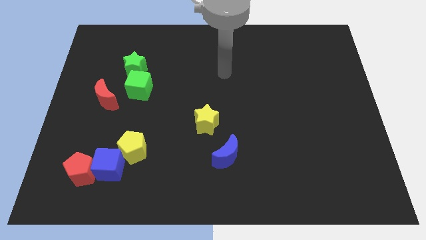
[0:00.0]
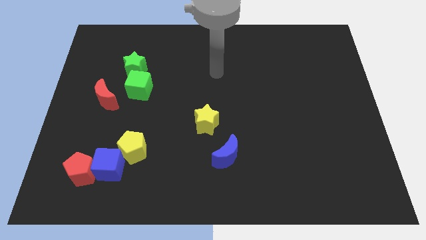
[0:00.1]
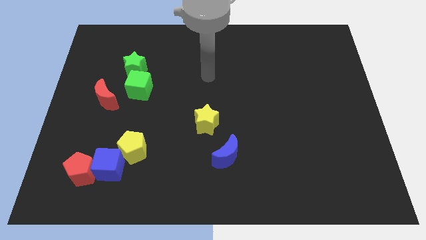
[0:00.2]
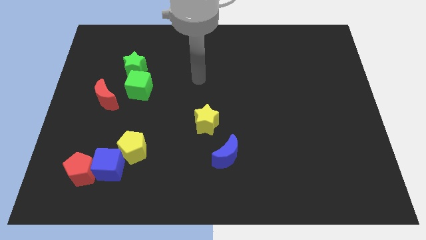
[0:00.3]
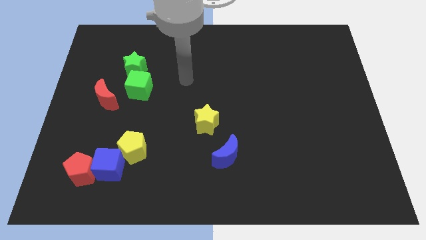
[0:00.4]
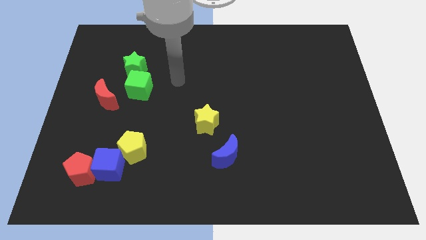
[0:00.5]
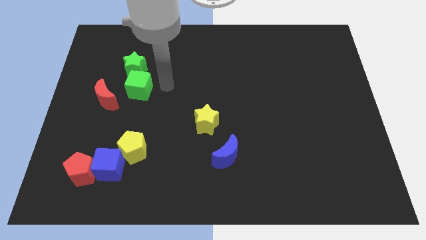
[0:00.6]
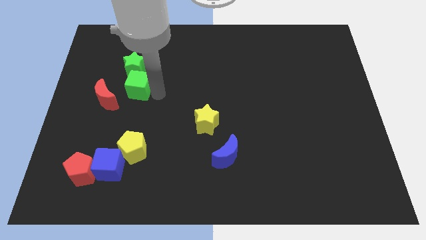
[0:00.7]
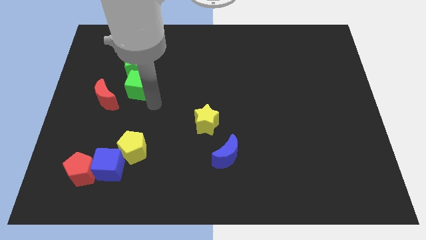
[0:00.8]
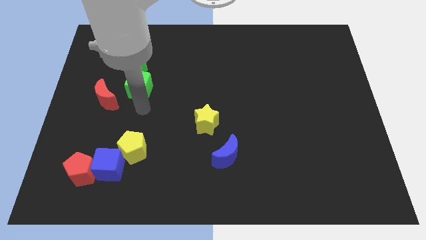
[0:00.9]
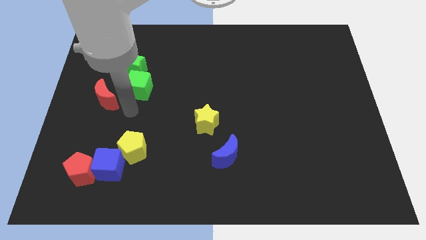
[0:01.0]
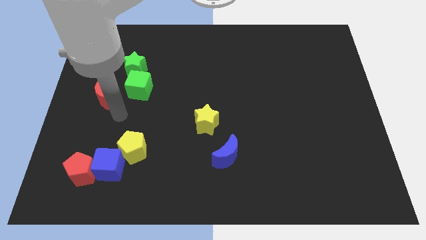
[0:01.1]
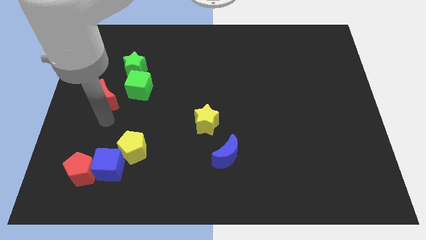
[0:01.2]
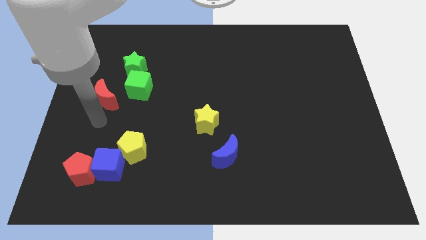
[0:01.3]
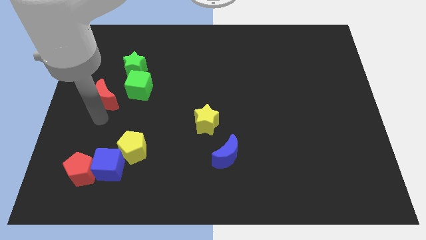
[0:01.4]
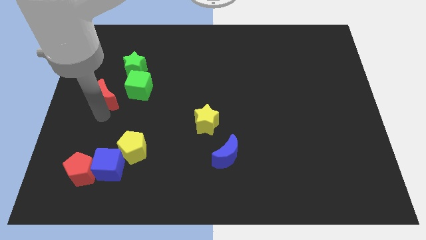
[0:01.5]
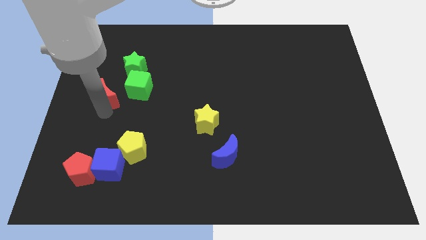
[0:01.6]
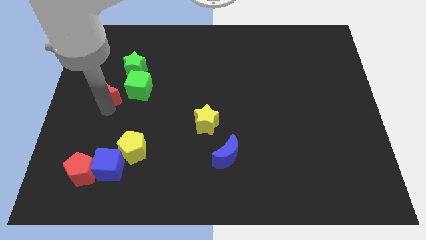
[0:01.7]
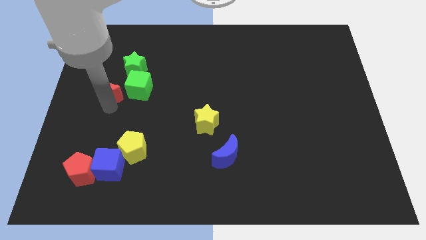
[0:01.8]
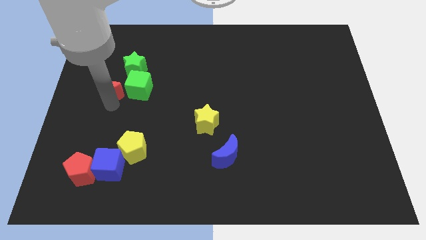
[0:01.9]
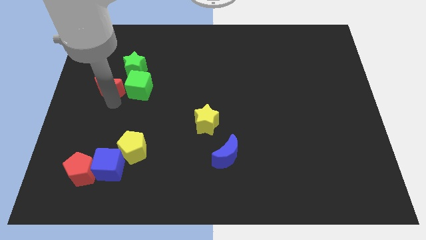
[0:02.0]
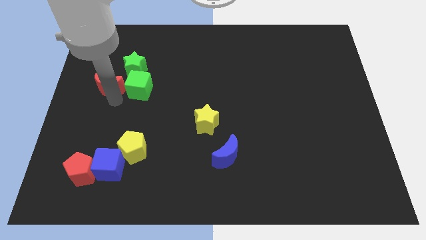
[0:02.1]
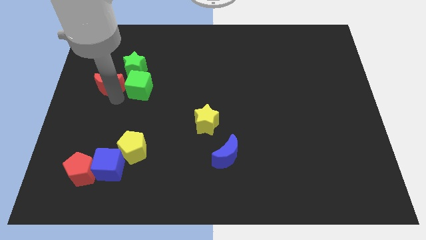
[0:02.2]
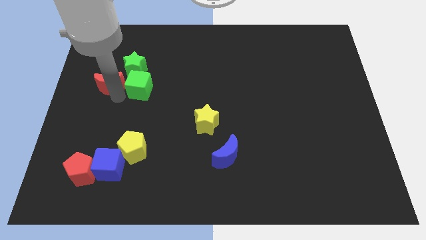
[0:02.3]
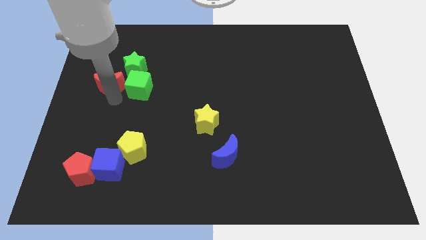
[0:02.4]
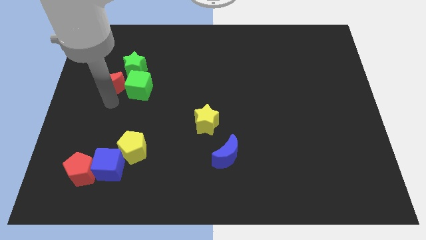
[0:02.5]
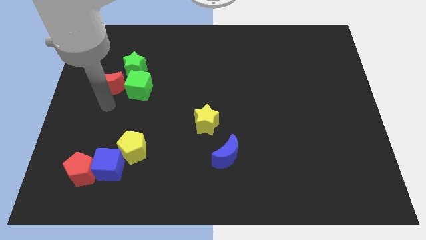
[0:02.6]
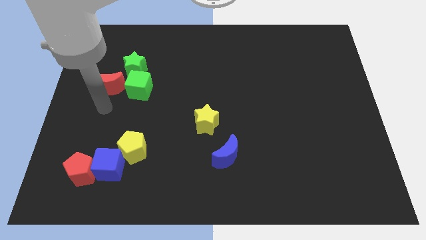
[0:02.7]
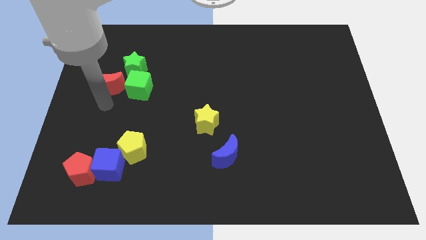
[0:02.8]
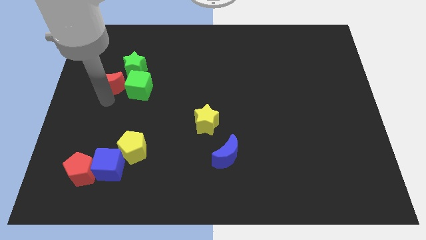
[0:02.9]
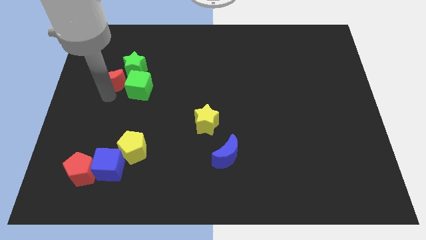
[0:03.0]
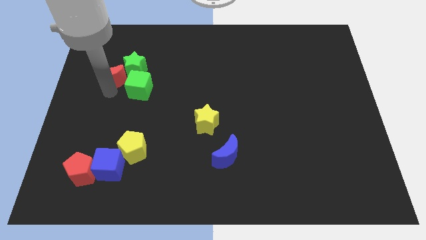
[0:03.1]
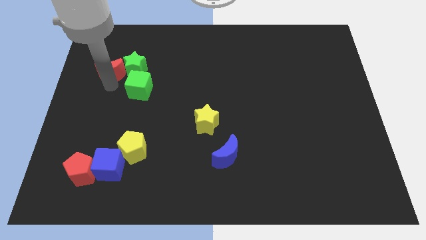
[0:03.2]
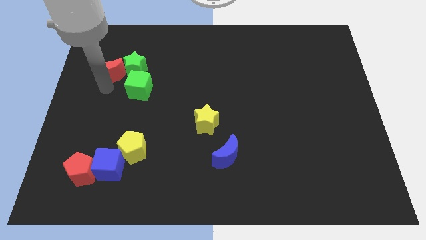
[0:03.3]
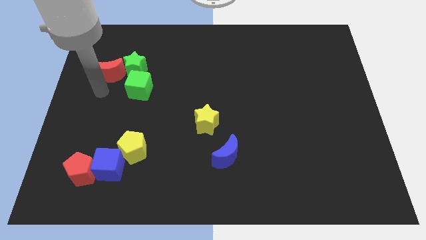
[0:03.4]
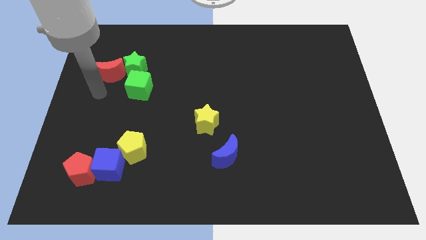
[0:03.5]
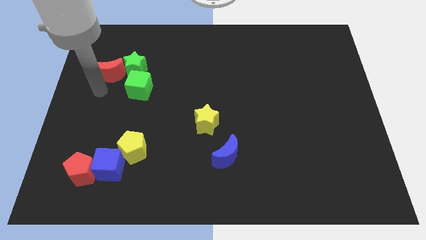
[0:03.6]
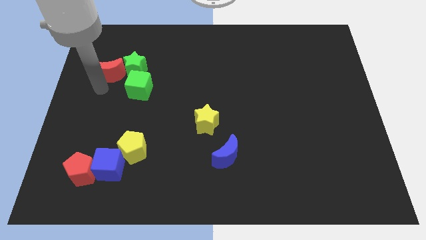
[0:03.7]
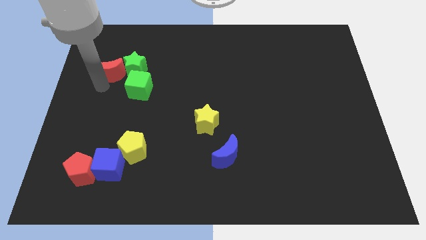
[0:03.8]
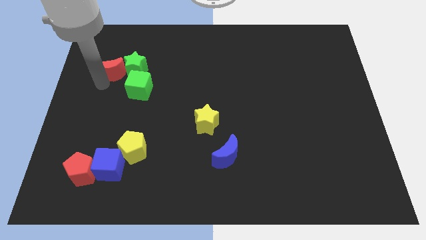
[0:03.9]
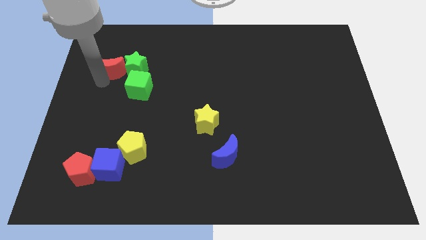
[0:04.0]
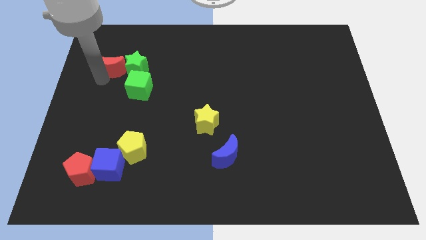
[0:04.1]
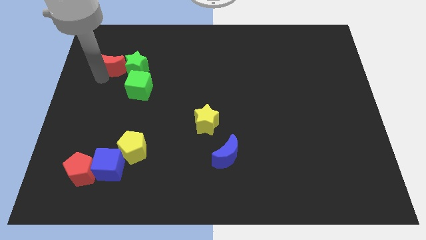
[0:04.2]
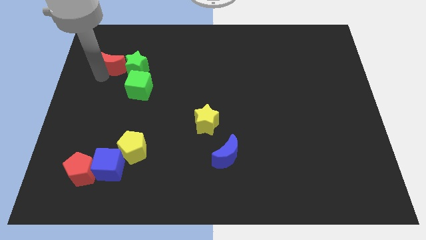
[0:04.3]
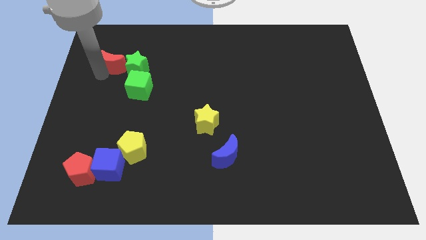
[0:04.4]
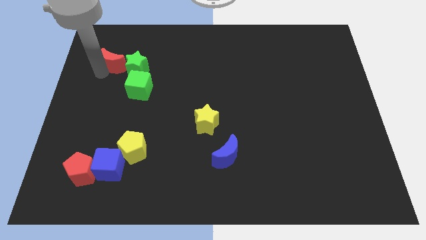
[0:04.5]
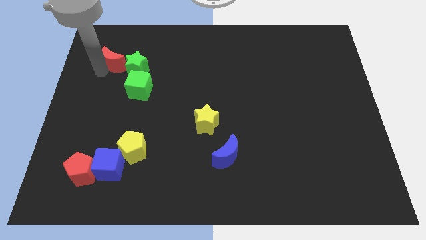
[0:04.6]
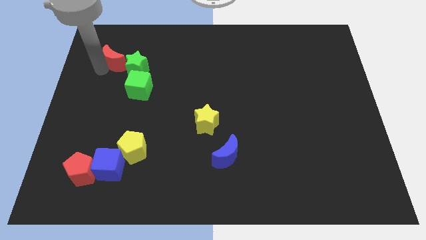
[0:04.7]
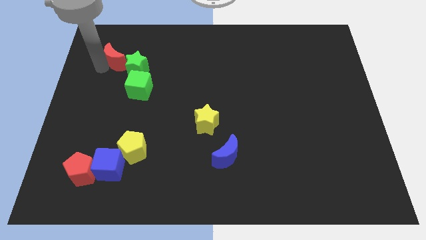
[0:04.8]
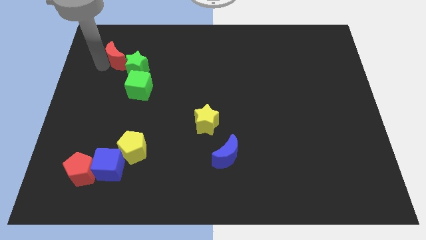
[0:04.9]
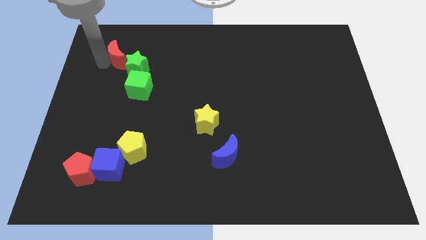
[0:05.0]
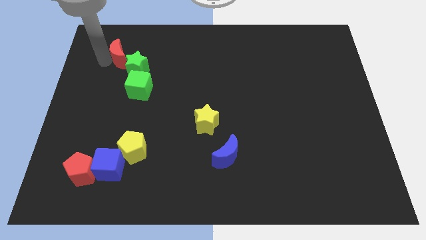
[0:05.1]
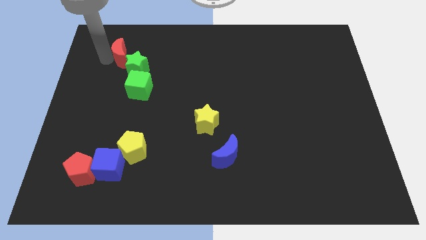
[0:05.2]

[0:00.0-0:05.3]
slide the red moon somewhat upwards and right diagonally

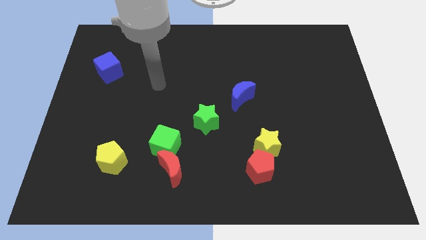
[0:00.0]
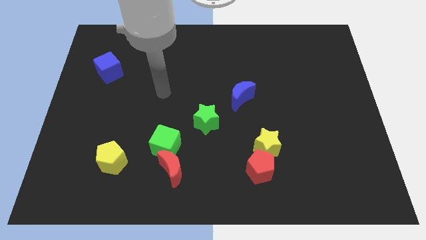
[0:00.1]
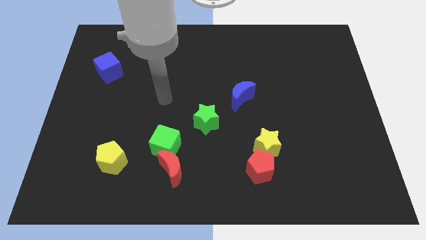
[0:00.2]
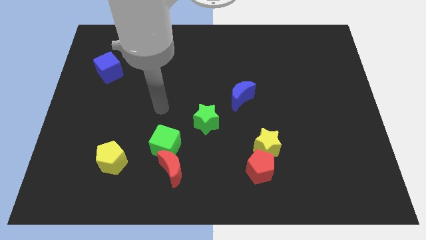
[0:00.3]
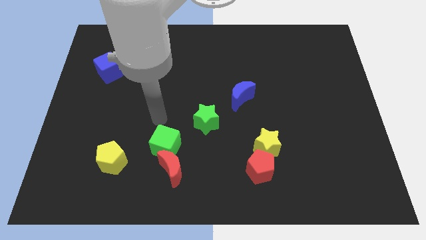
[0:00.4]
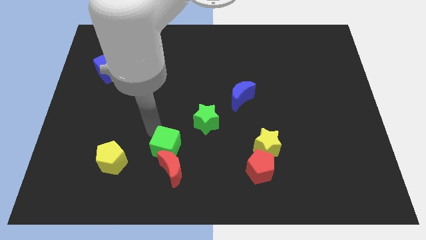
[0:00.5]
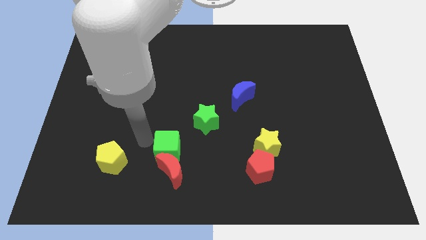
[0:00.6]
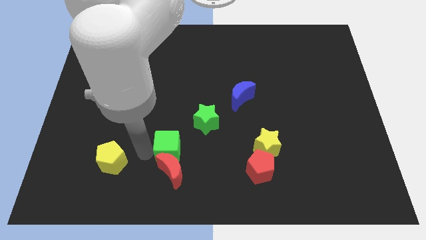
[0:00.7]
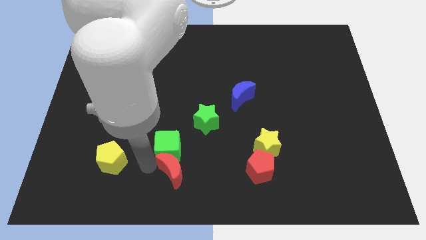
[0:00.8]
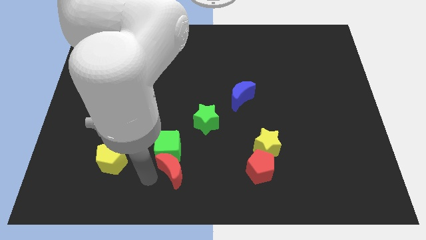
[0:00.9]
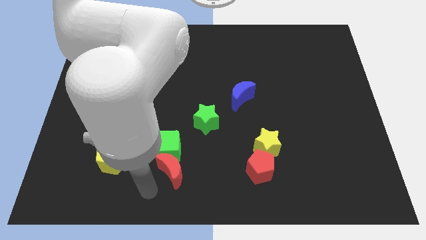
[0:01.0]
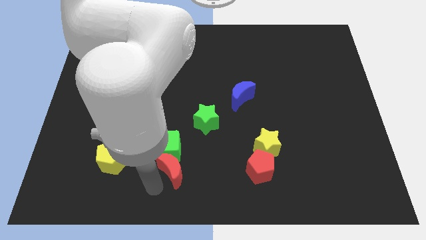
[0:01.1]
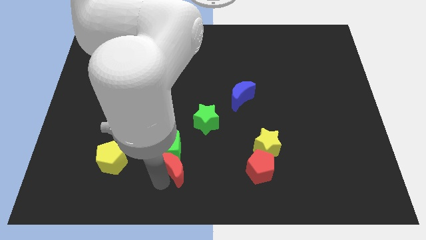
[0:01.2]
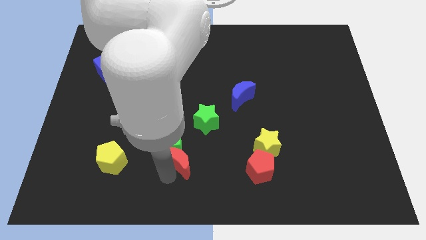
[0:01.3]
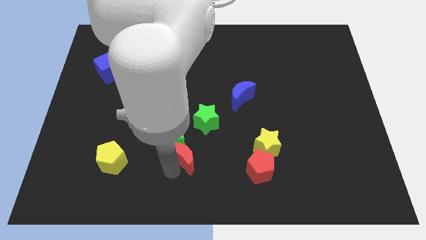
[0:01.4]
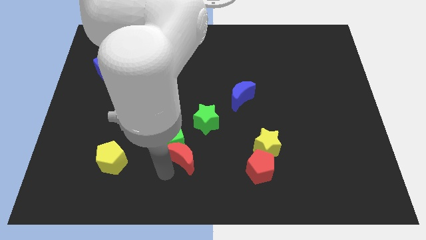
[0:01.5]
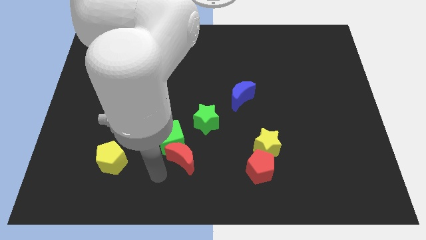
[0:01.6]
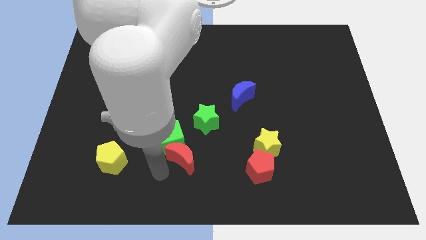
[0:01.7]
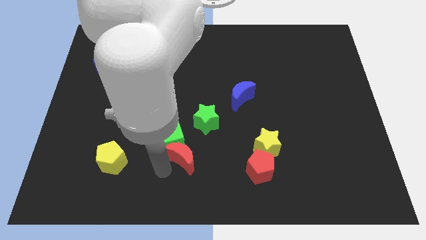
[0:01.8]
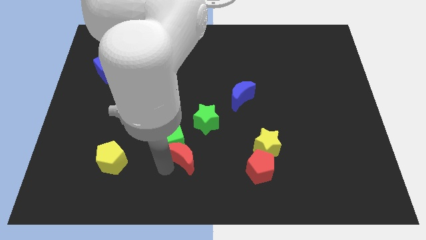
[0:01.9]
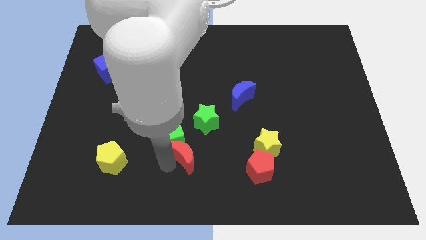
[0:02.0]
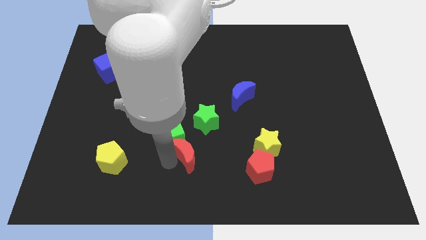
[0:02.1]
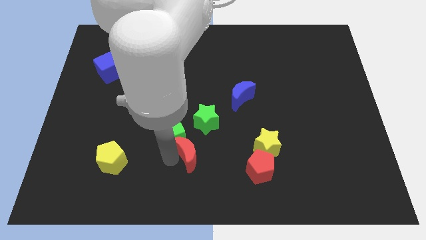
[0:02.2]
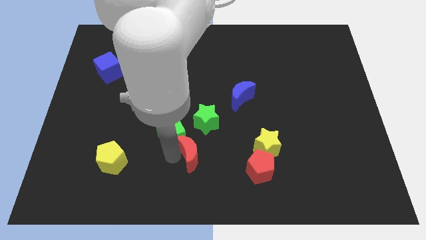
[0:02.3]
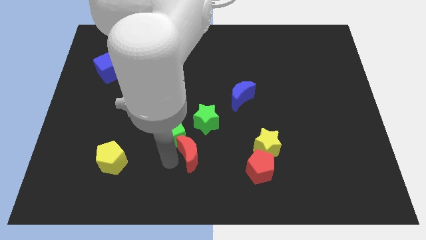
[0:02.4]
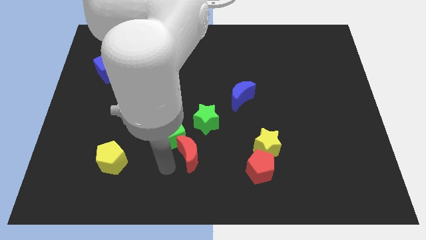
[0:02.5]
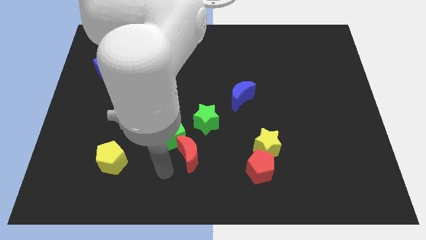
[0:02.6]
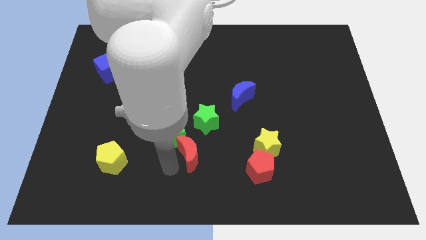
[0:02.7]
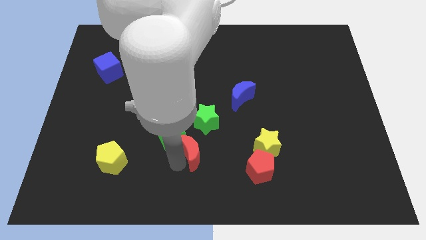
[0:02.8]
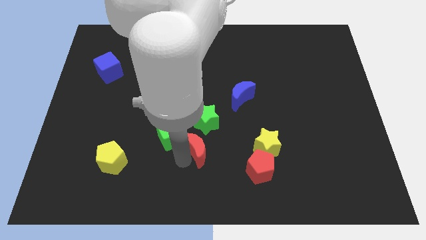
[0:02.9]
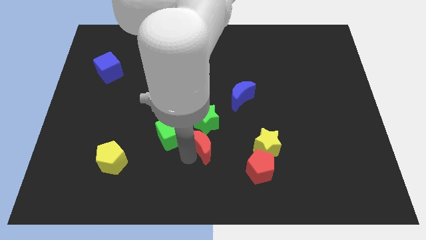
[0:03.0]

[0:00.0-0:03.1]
slide the red moon up and to the right somewhat
